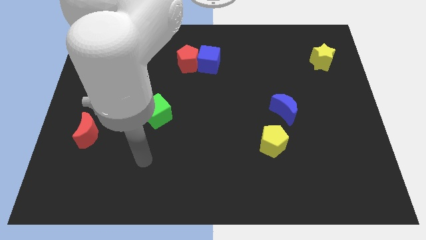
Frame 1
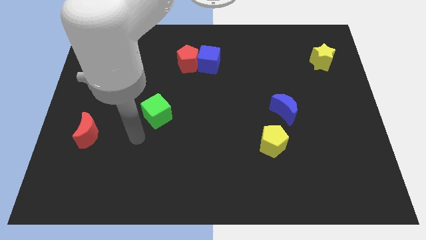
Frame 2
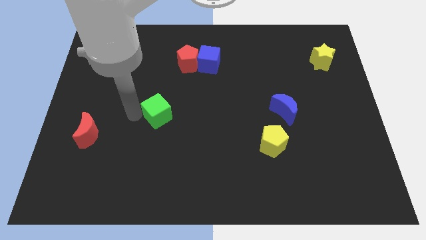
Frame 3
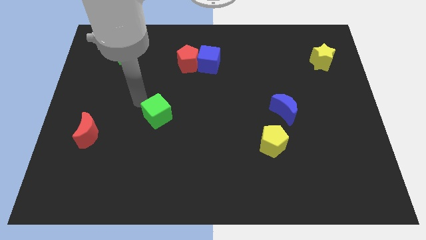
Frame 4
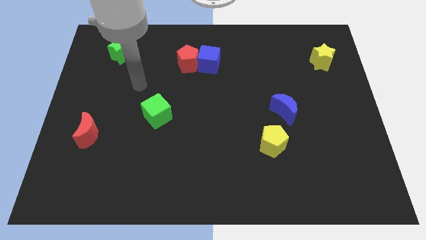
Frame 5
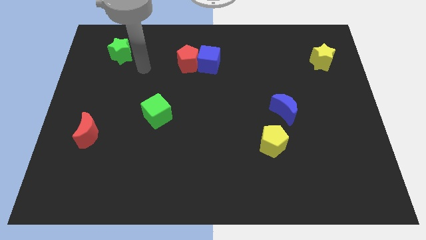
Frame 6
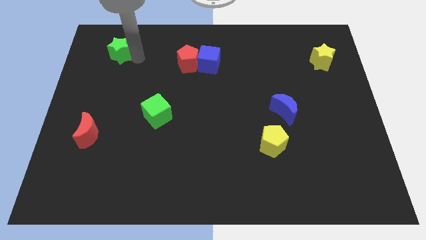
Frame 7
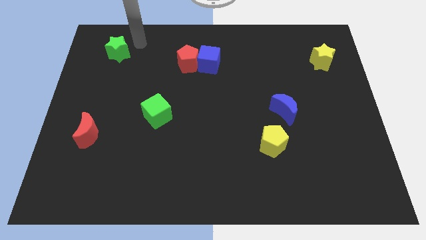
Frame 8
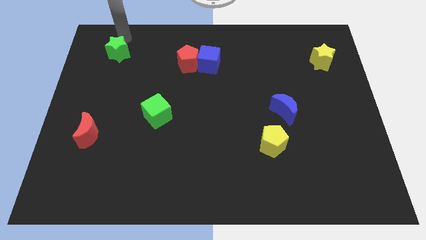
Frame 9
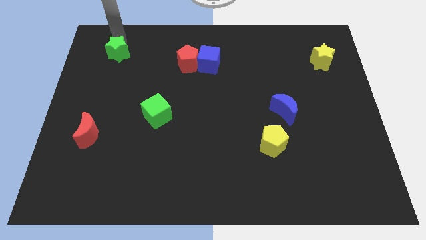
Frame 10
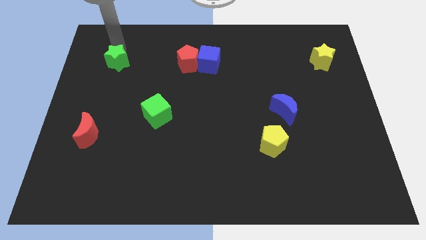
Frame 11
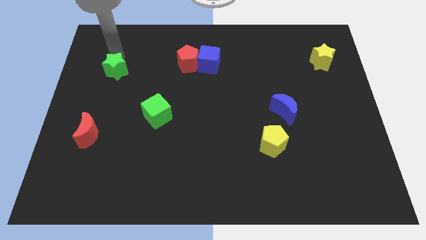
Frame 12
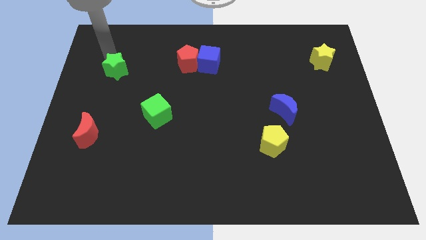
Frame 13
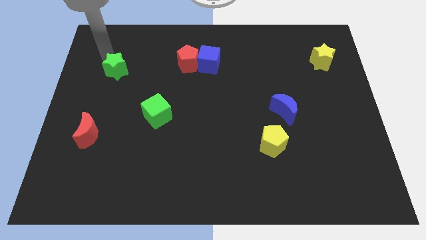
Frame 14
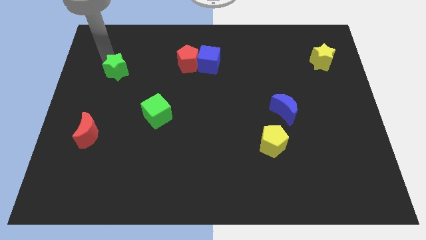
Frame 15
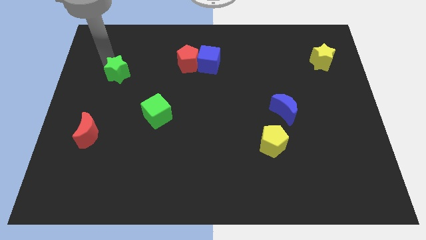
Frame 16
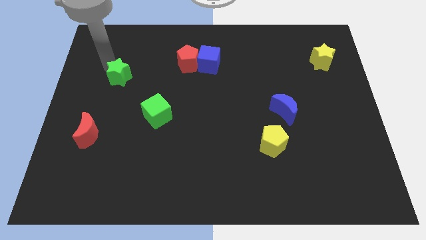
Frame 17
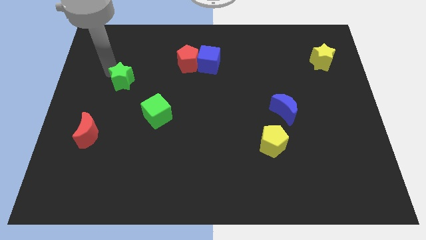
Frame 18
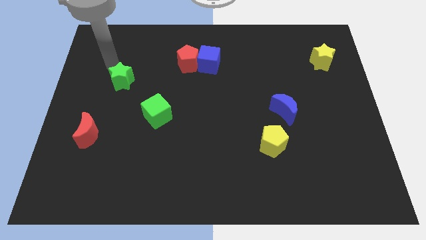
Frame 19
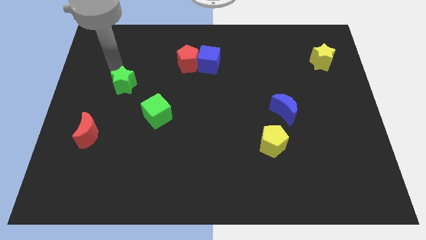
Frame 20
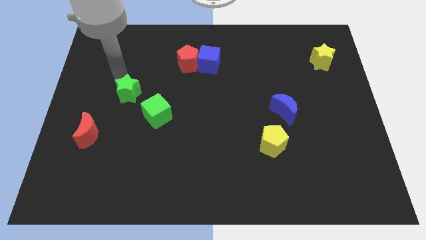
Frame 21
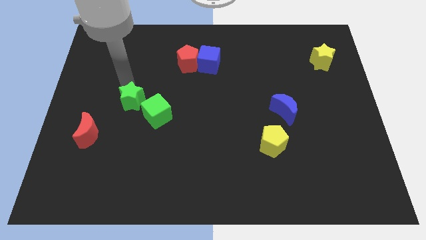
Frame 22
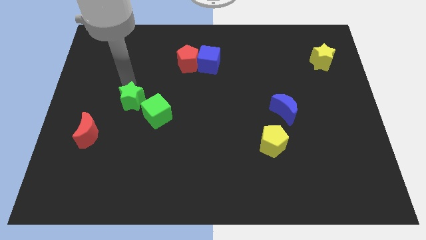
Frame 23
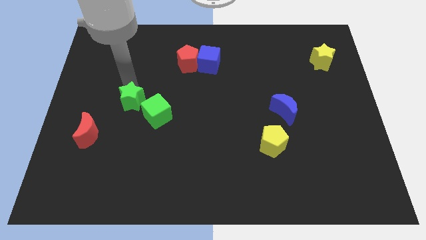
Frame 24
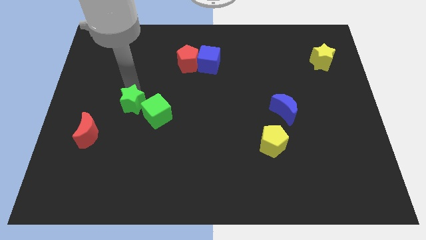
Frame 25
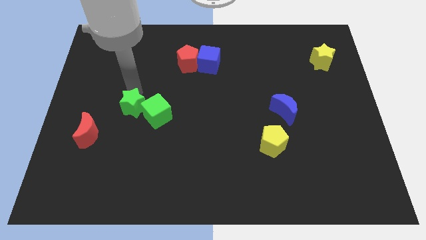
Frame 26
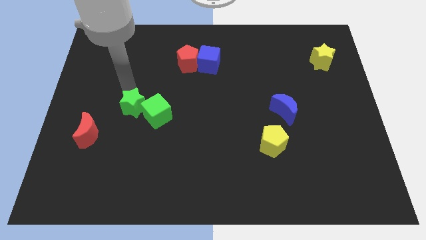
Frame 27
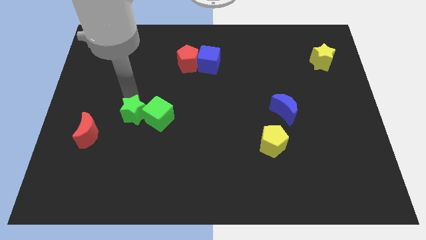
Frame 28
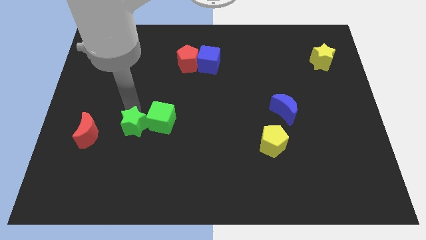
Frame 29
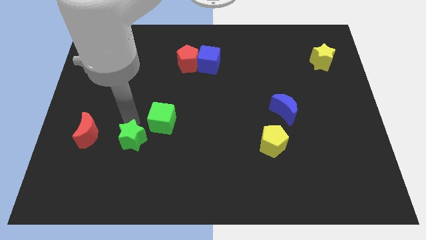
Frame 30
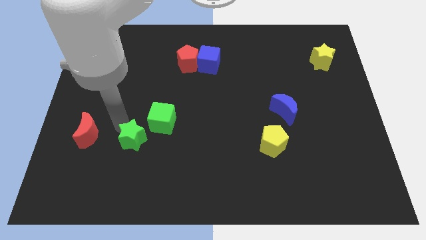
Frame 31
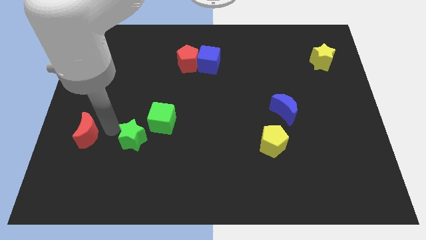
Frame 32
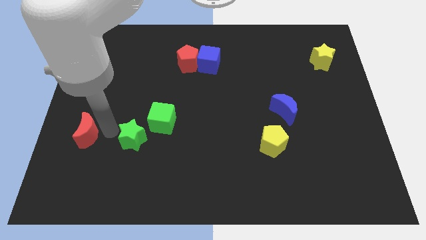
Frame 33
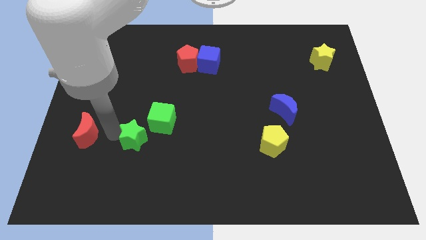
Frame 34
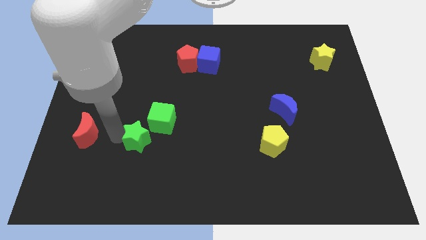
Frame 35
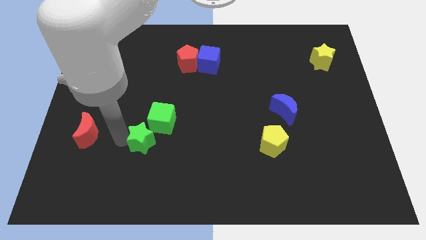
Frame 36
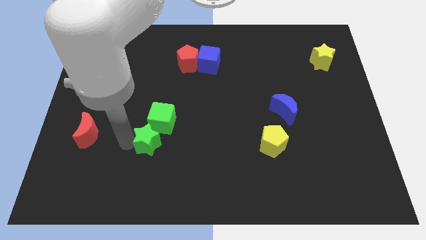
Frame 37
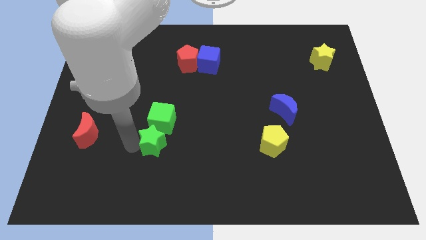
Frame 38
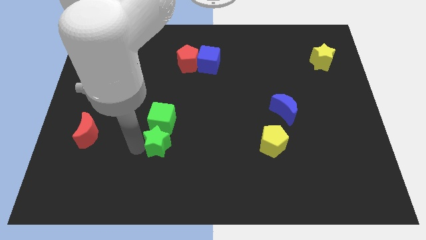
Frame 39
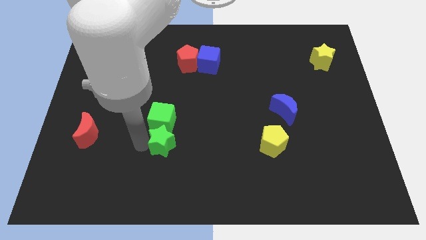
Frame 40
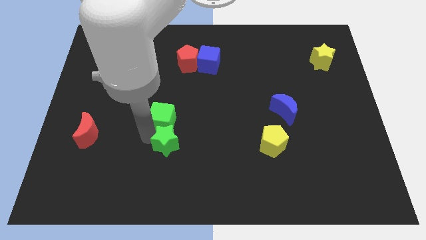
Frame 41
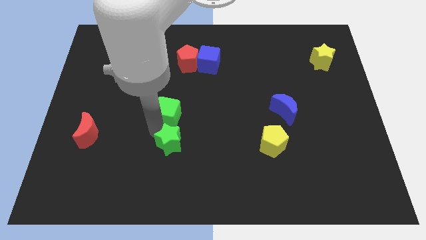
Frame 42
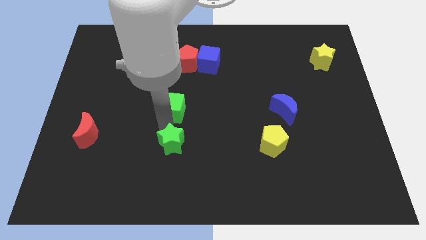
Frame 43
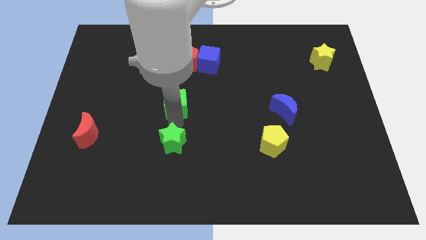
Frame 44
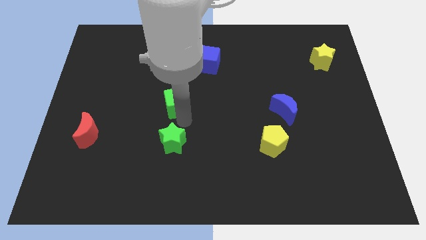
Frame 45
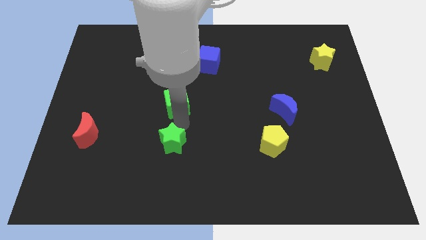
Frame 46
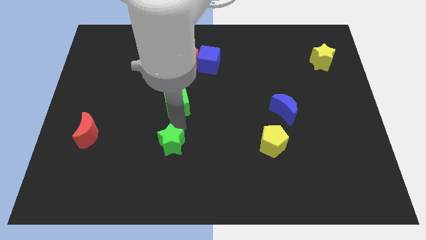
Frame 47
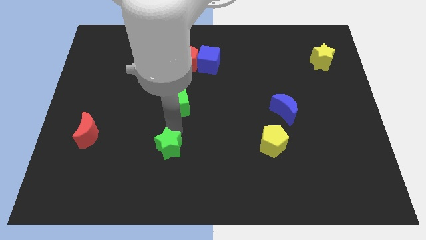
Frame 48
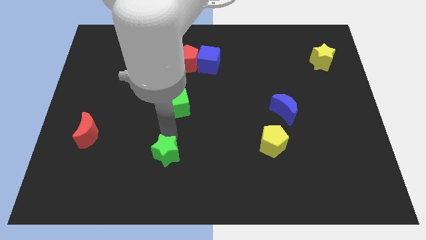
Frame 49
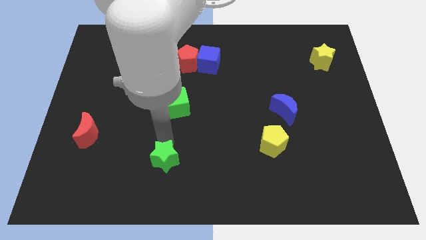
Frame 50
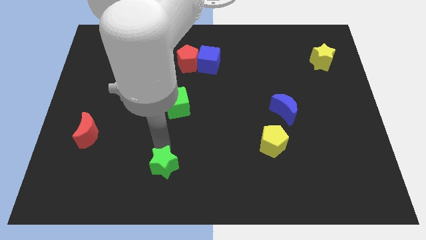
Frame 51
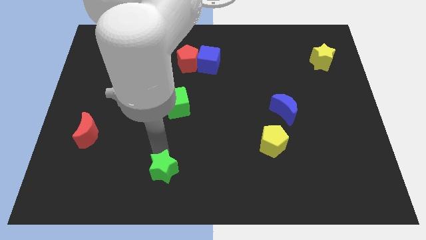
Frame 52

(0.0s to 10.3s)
move the green star to the bottom

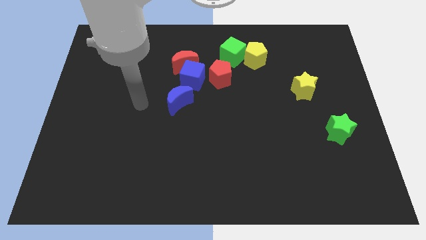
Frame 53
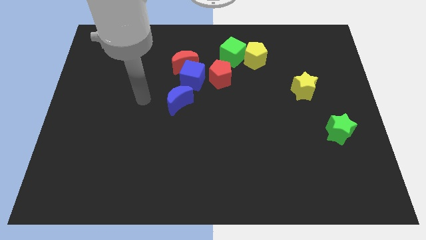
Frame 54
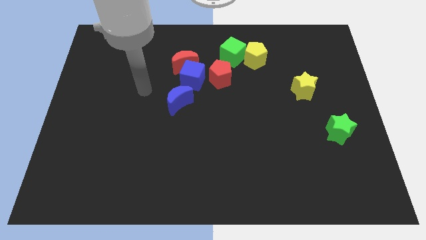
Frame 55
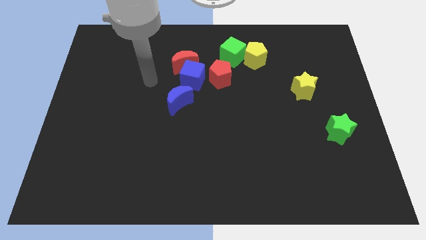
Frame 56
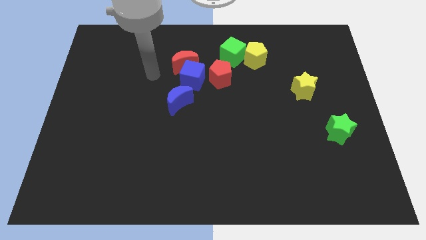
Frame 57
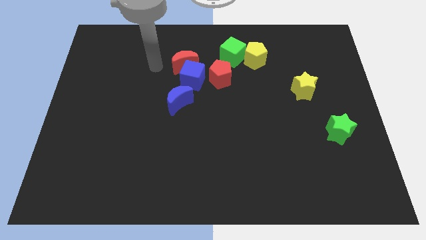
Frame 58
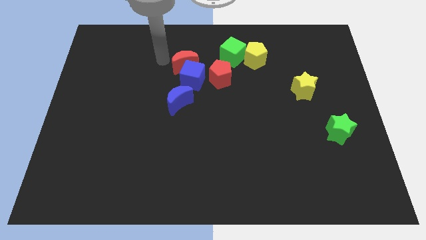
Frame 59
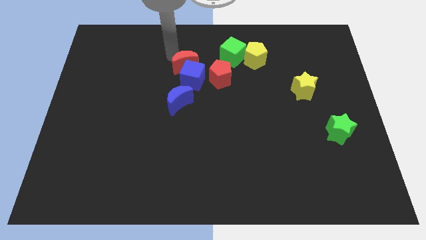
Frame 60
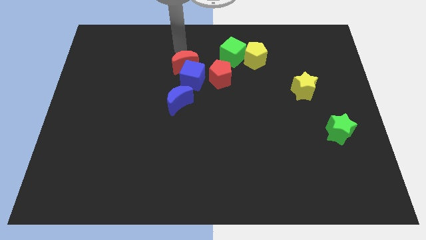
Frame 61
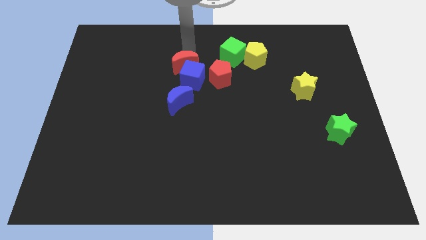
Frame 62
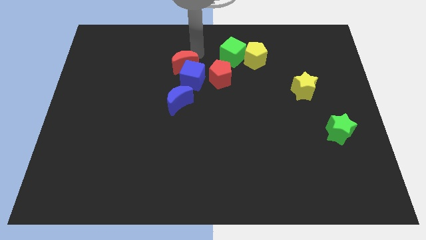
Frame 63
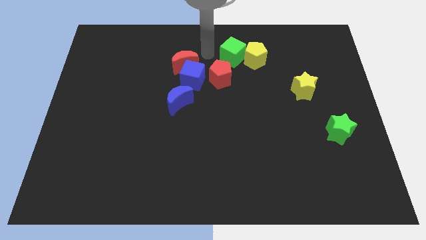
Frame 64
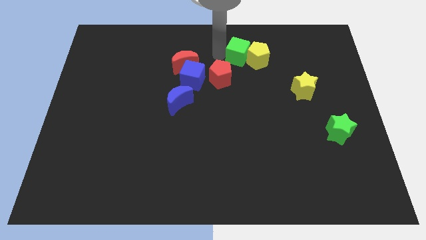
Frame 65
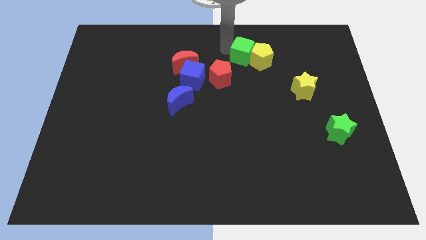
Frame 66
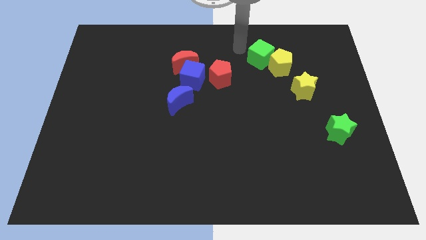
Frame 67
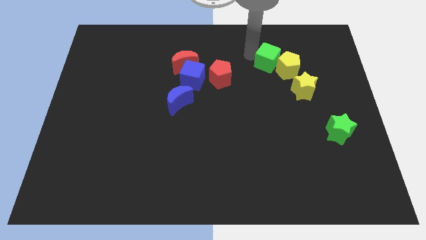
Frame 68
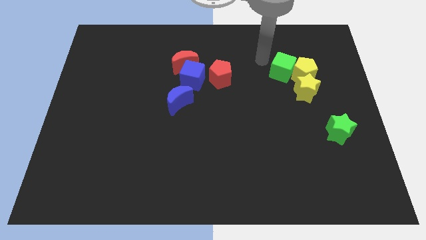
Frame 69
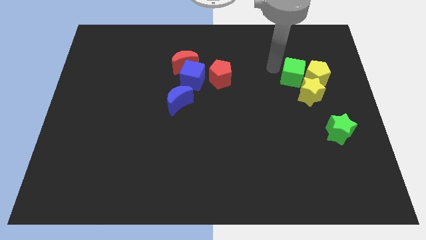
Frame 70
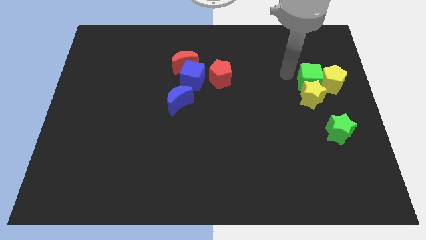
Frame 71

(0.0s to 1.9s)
slide the yellow pentagon to the right side of the board
